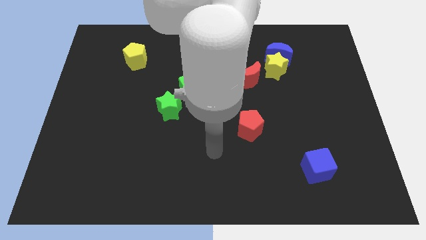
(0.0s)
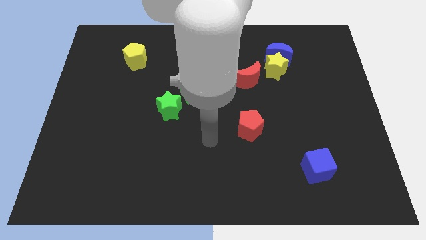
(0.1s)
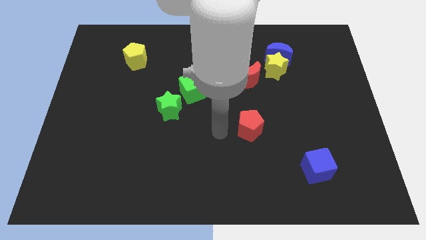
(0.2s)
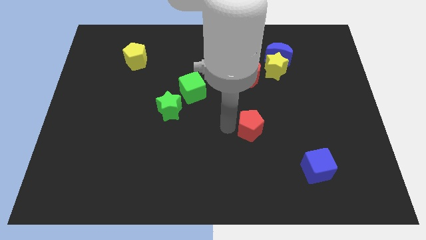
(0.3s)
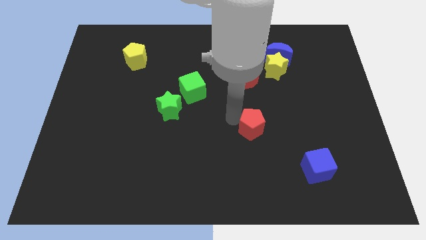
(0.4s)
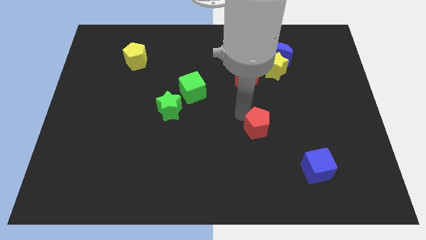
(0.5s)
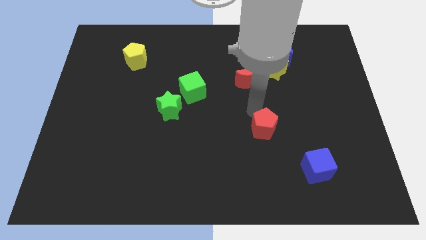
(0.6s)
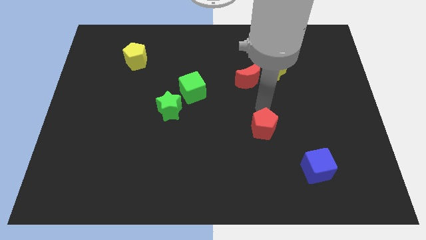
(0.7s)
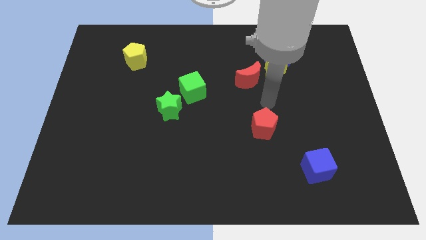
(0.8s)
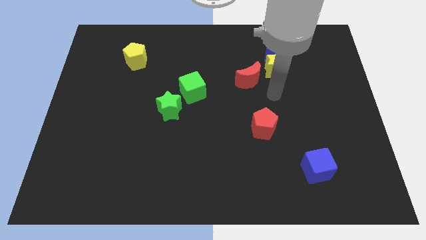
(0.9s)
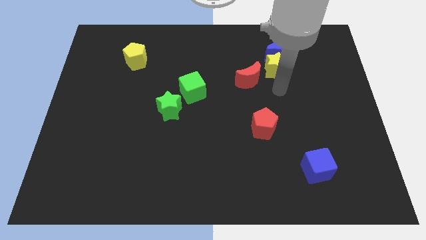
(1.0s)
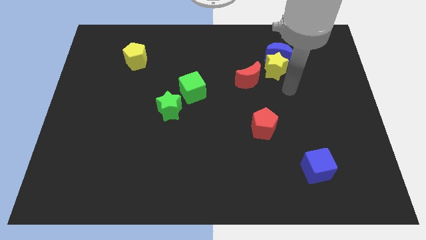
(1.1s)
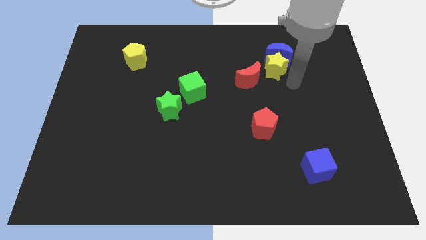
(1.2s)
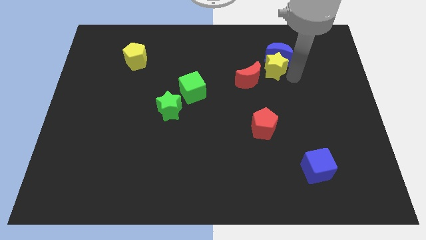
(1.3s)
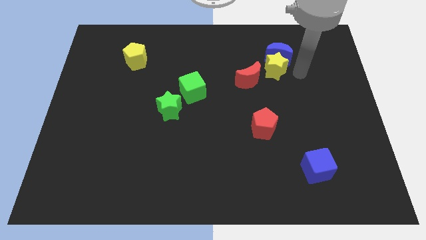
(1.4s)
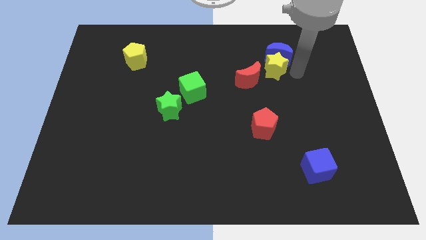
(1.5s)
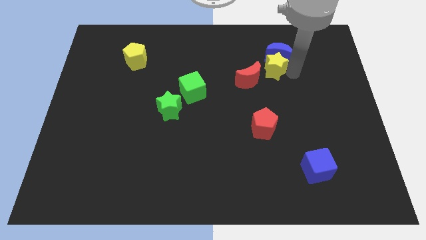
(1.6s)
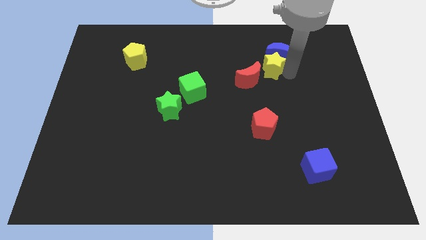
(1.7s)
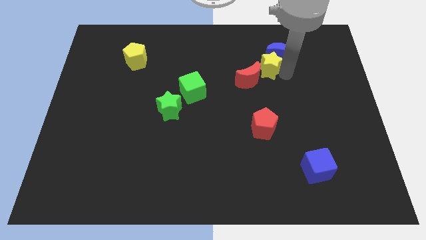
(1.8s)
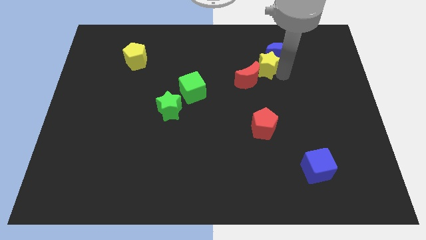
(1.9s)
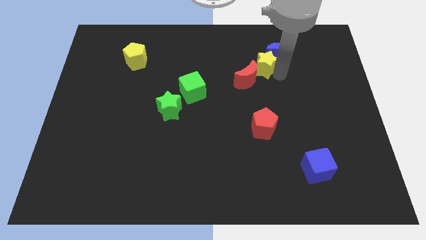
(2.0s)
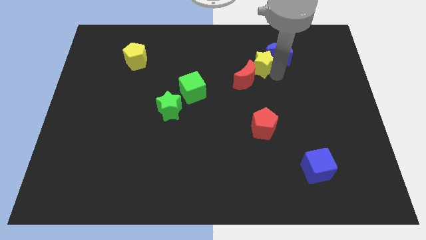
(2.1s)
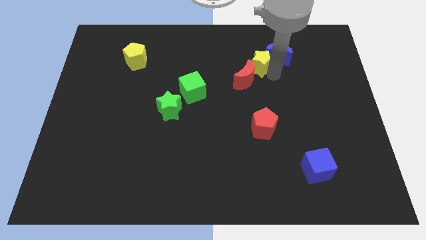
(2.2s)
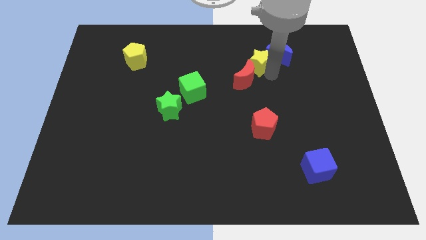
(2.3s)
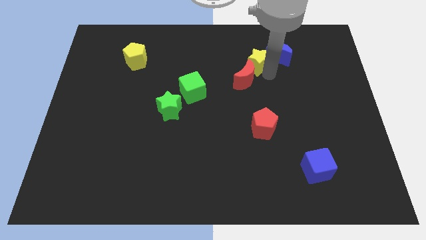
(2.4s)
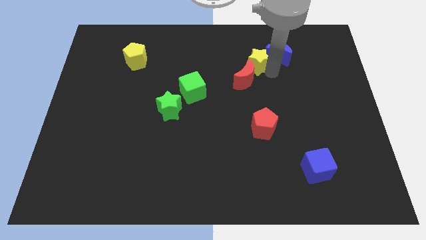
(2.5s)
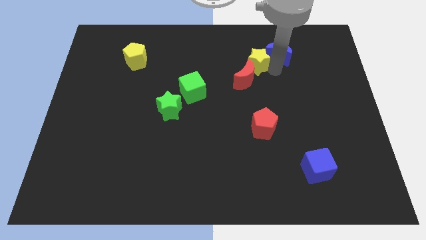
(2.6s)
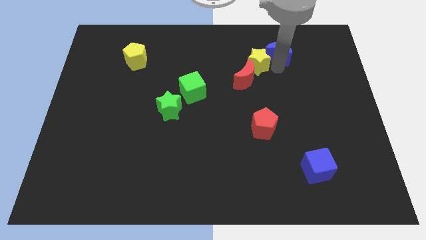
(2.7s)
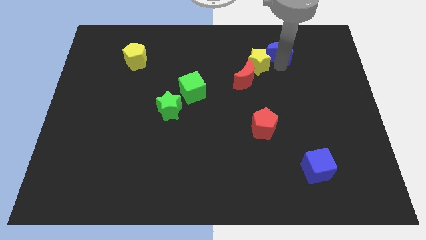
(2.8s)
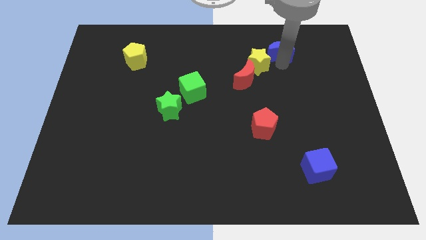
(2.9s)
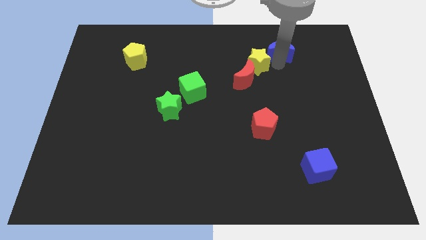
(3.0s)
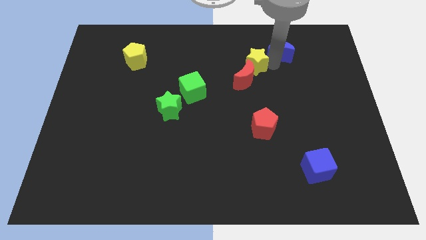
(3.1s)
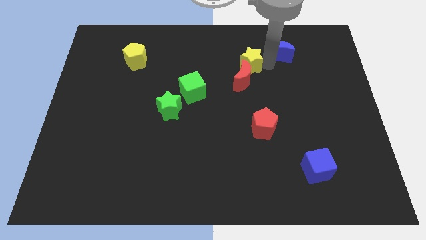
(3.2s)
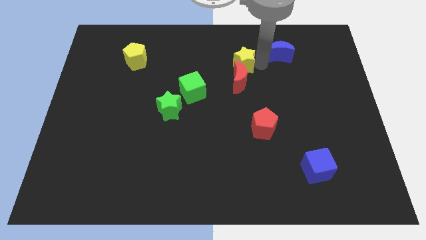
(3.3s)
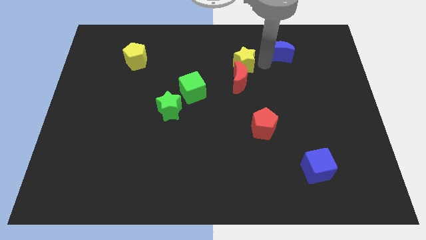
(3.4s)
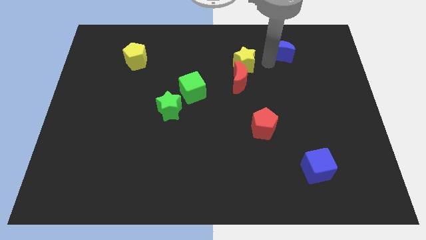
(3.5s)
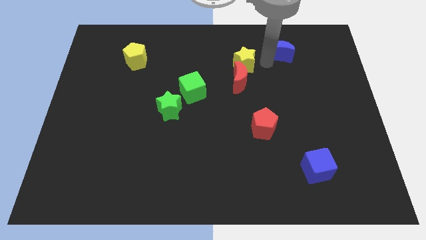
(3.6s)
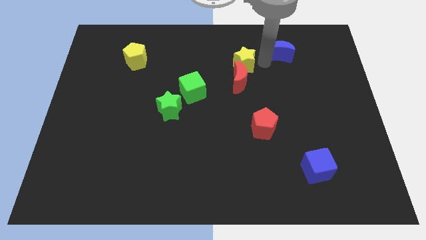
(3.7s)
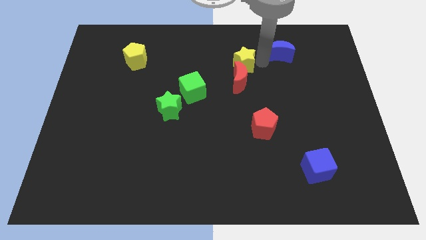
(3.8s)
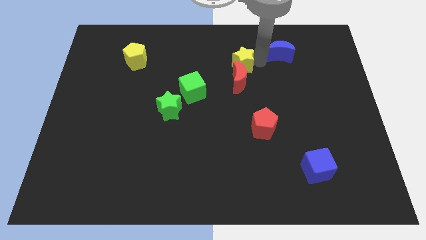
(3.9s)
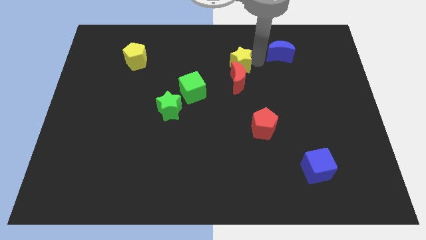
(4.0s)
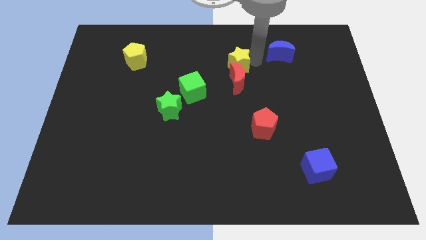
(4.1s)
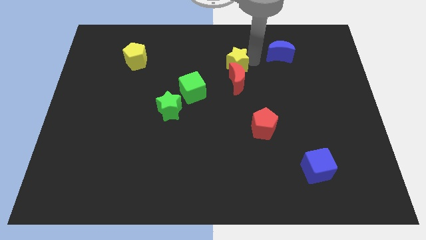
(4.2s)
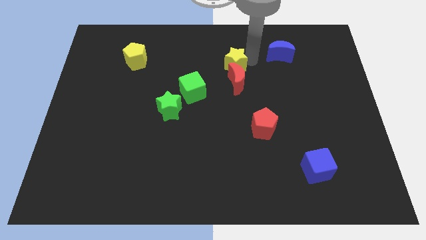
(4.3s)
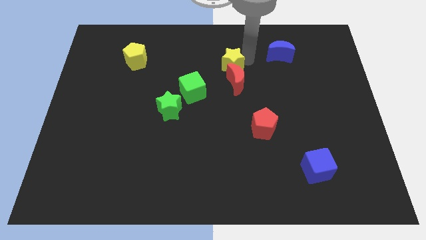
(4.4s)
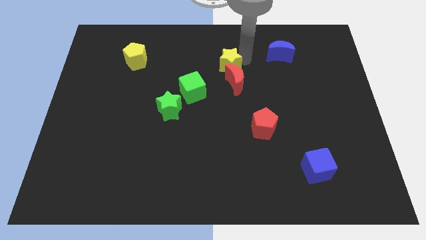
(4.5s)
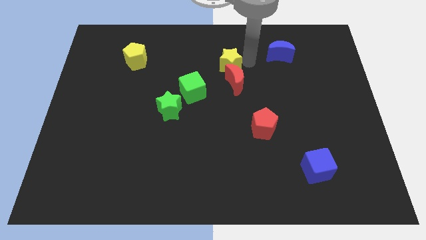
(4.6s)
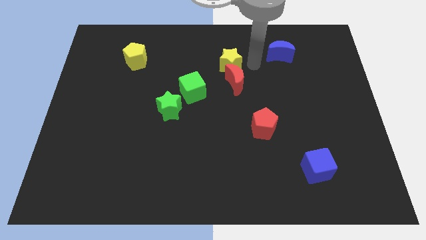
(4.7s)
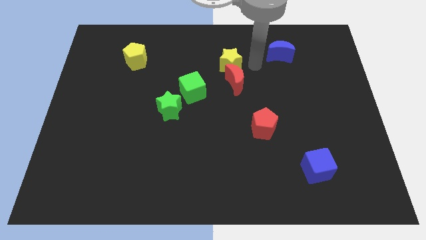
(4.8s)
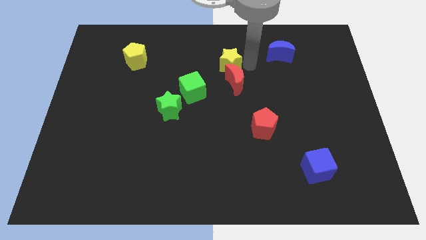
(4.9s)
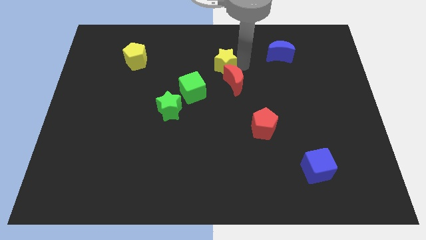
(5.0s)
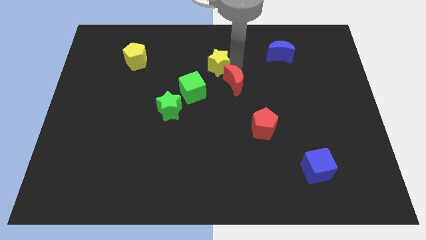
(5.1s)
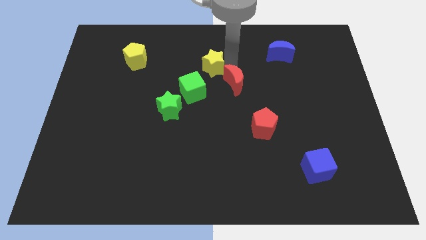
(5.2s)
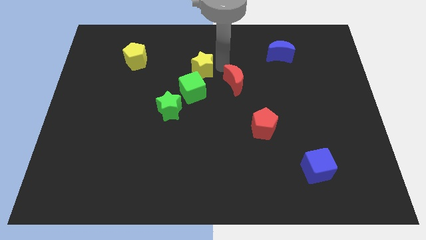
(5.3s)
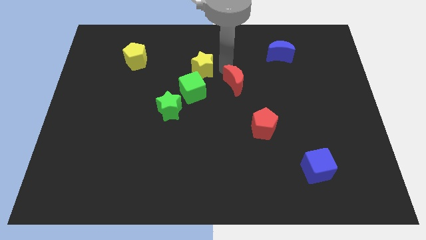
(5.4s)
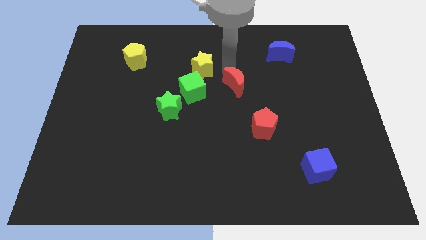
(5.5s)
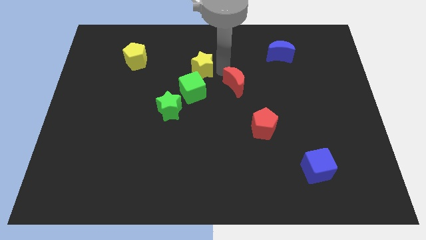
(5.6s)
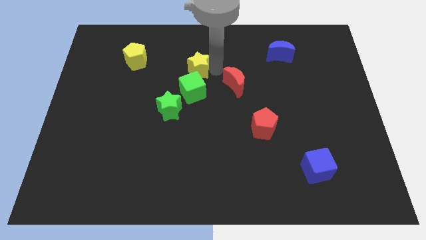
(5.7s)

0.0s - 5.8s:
move the yellow star left

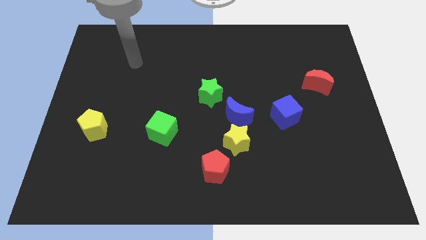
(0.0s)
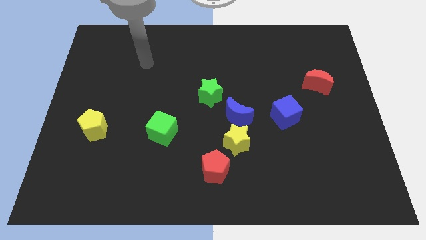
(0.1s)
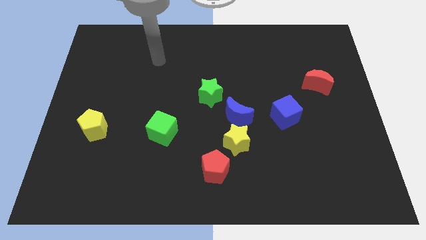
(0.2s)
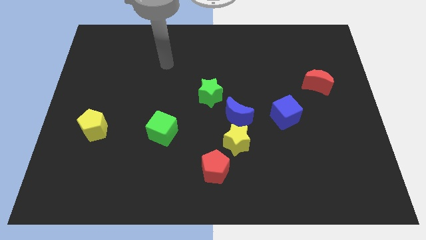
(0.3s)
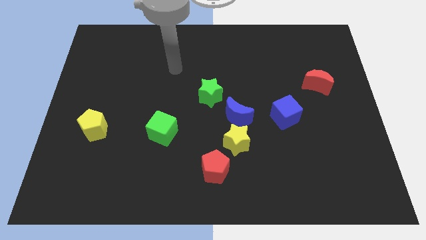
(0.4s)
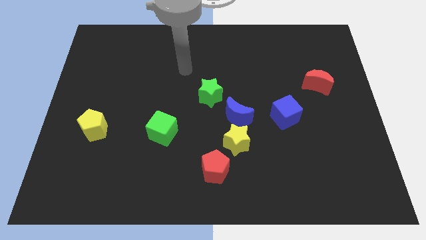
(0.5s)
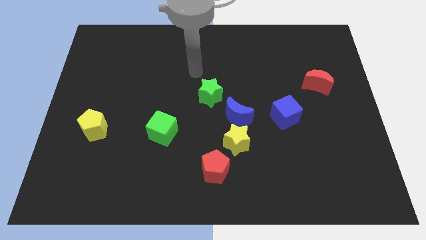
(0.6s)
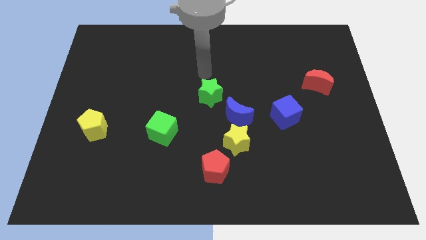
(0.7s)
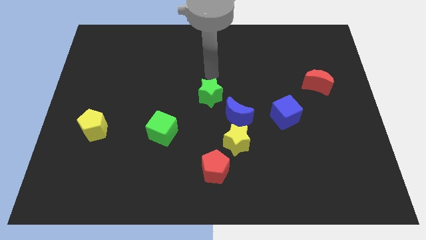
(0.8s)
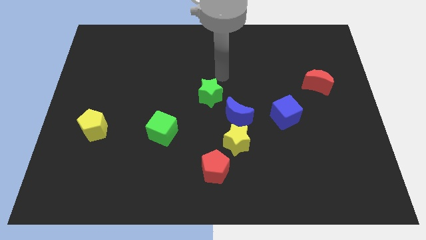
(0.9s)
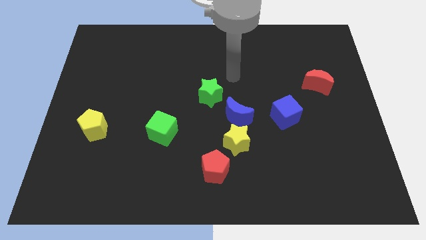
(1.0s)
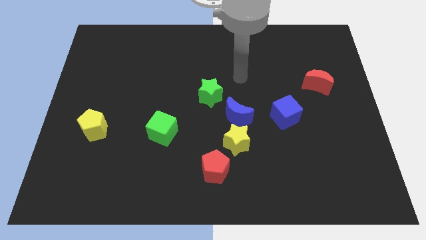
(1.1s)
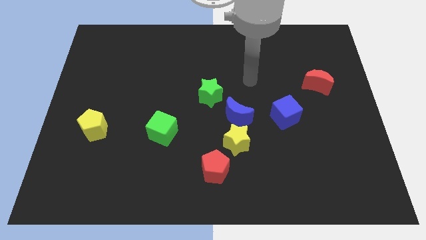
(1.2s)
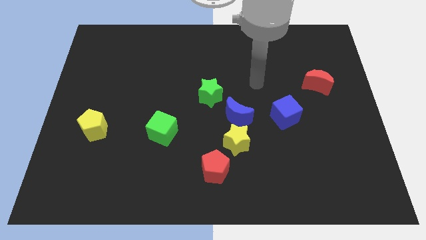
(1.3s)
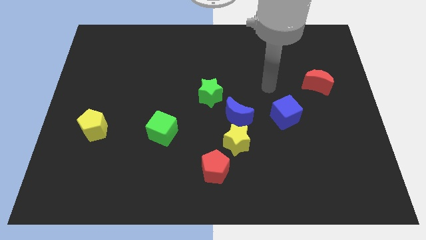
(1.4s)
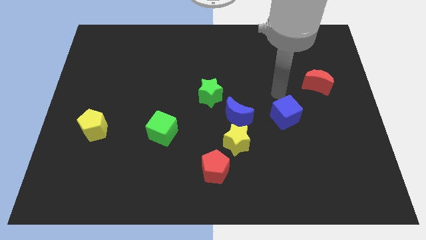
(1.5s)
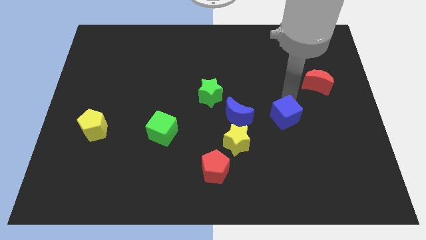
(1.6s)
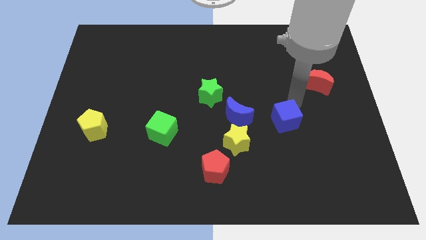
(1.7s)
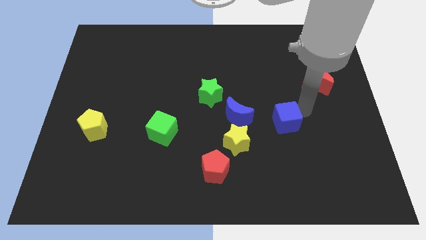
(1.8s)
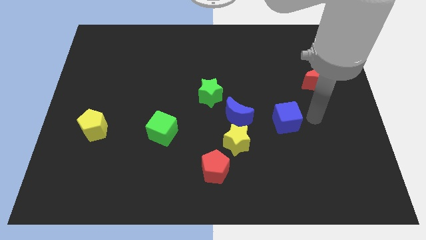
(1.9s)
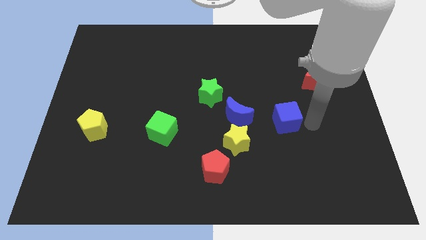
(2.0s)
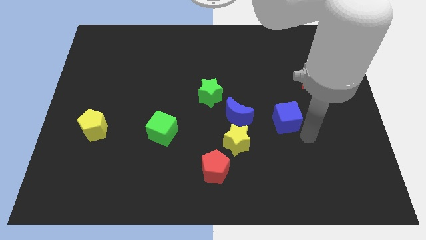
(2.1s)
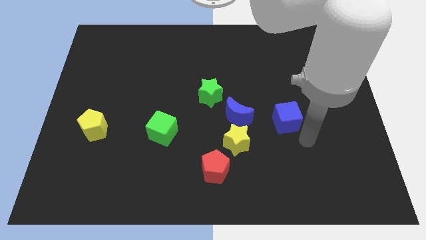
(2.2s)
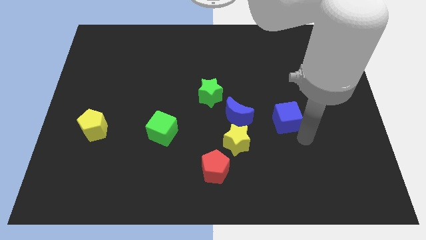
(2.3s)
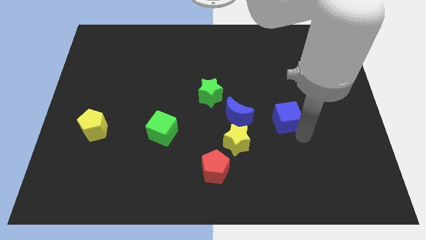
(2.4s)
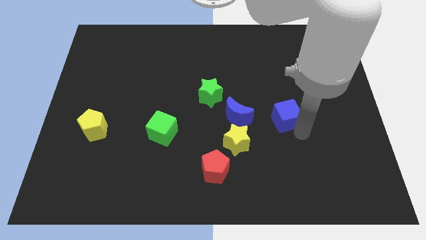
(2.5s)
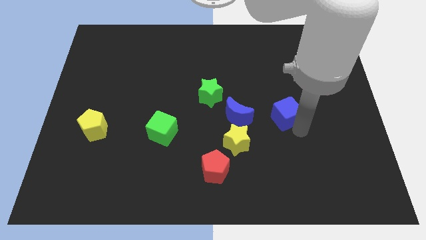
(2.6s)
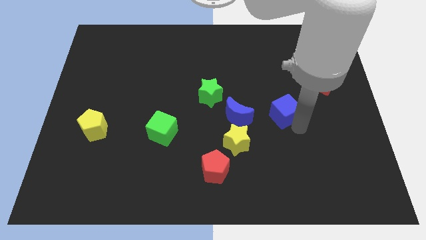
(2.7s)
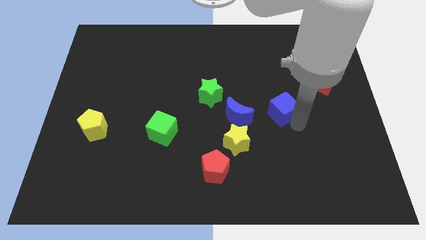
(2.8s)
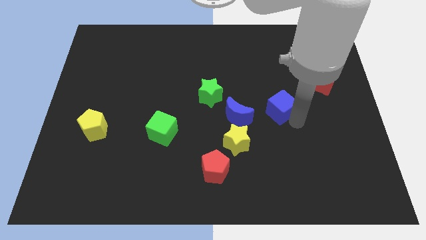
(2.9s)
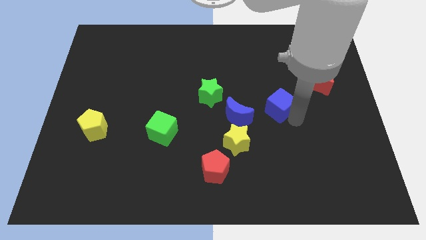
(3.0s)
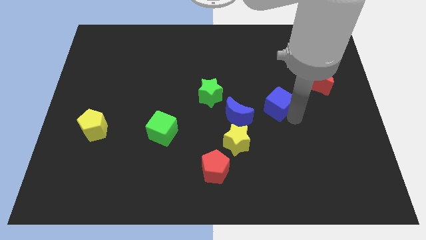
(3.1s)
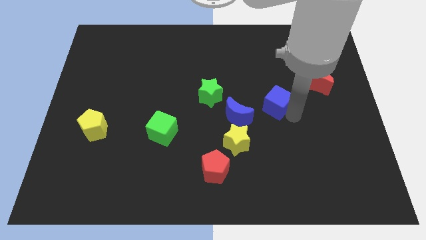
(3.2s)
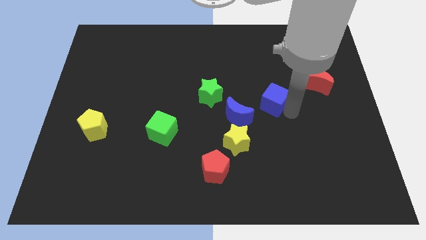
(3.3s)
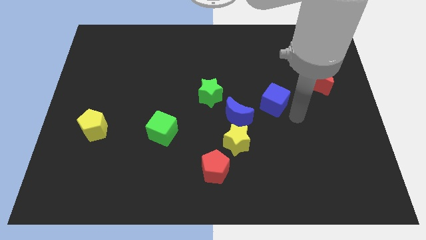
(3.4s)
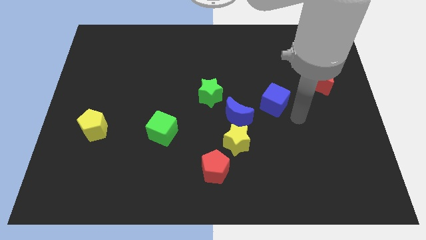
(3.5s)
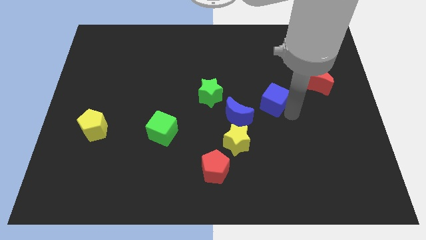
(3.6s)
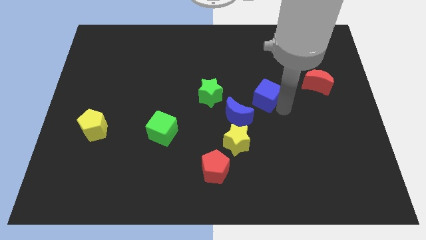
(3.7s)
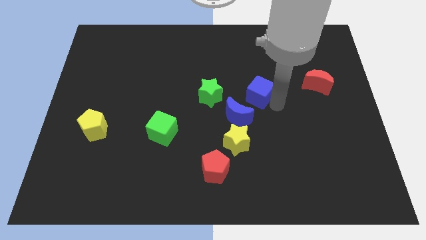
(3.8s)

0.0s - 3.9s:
slightly push the blue cube up and then left
